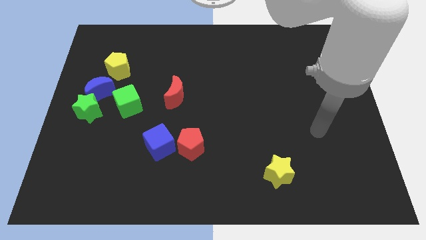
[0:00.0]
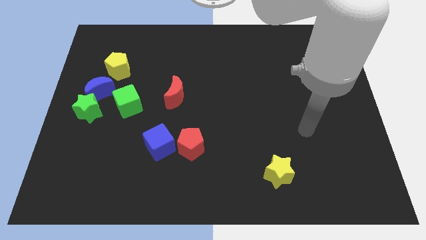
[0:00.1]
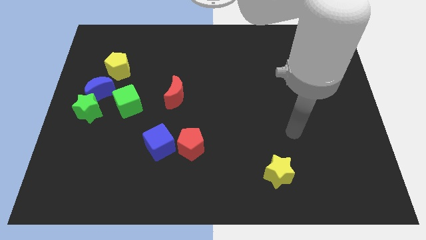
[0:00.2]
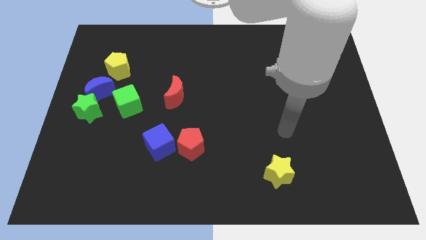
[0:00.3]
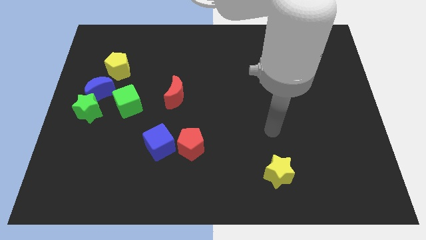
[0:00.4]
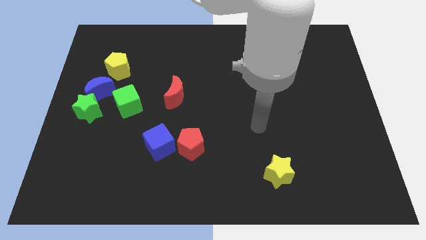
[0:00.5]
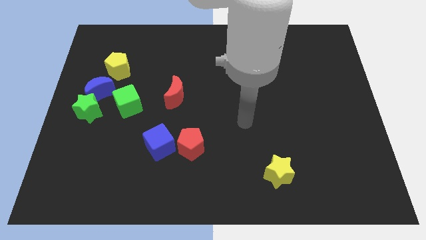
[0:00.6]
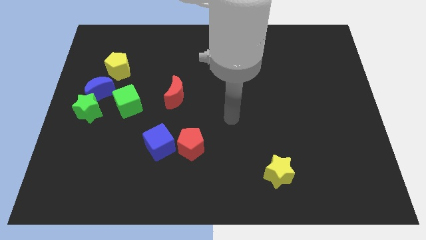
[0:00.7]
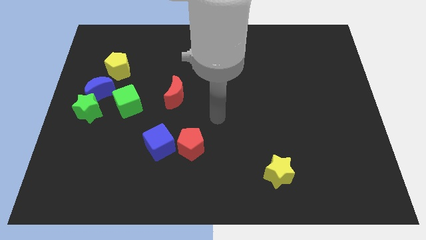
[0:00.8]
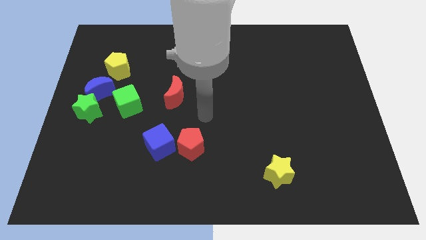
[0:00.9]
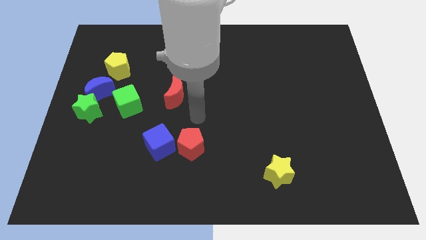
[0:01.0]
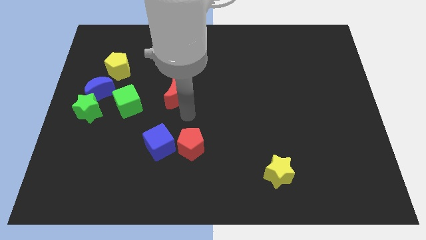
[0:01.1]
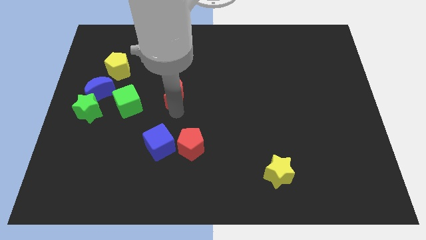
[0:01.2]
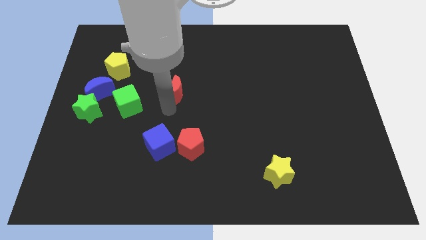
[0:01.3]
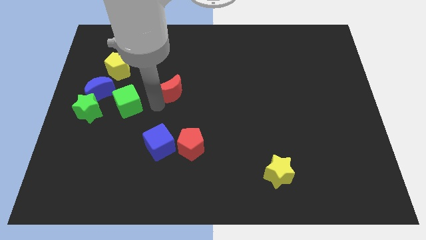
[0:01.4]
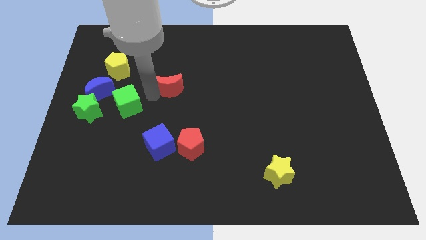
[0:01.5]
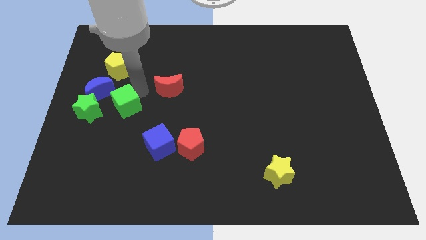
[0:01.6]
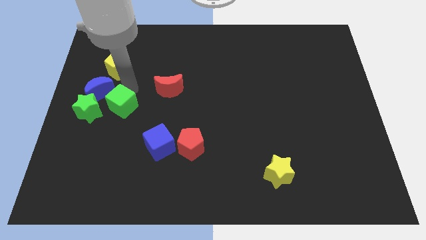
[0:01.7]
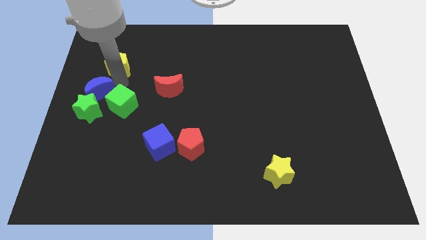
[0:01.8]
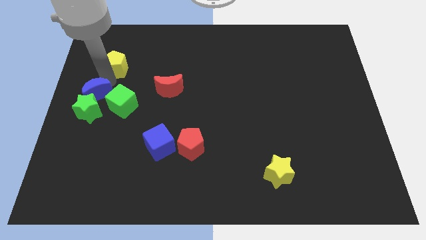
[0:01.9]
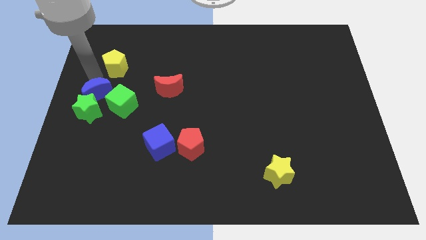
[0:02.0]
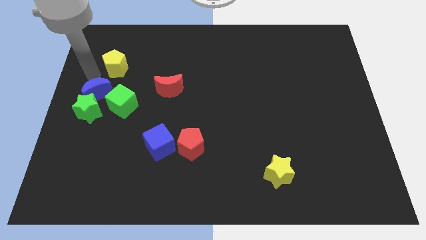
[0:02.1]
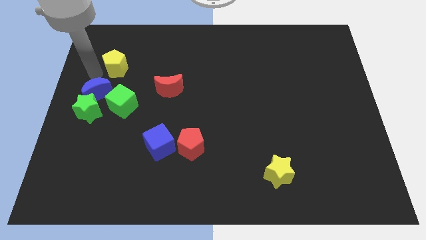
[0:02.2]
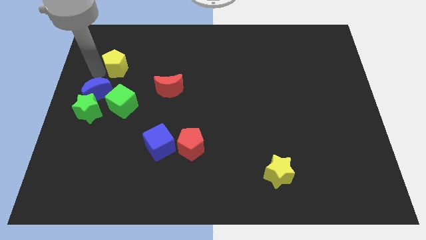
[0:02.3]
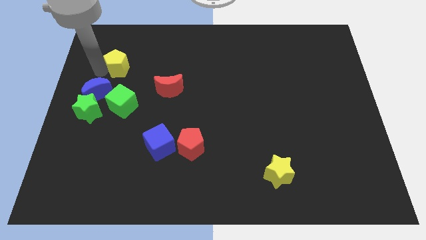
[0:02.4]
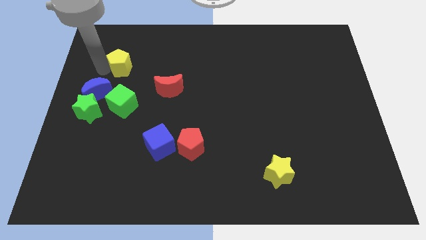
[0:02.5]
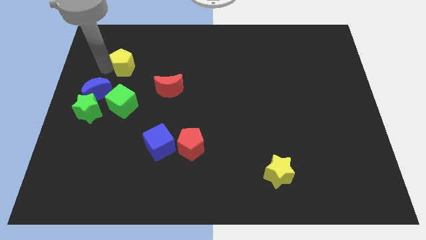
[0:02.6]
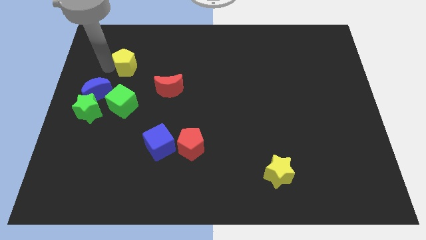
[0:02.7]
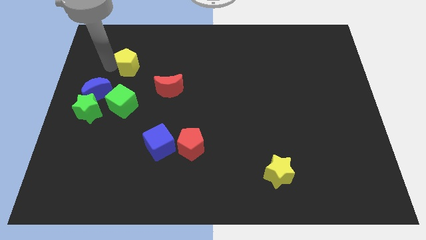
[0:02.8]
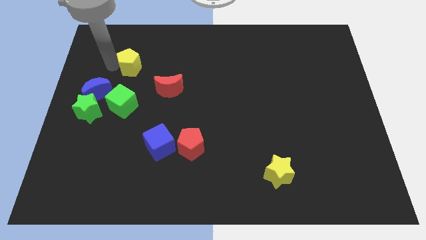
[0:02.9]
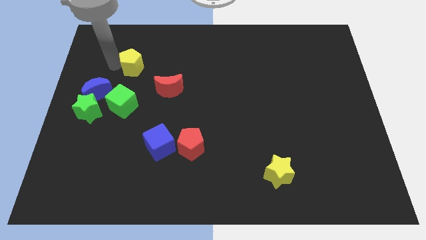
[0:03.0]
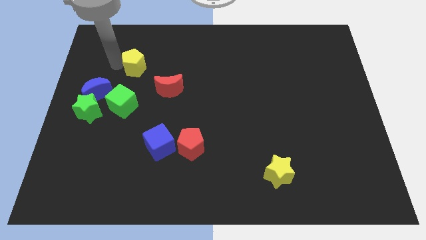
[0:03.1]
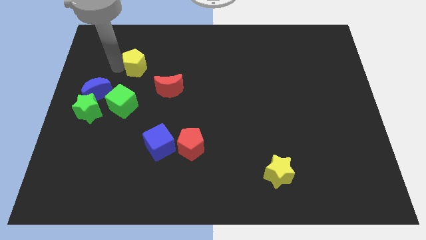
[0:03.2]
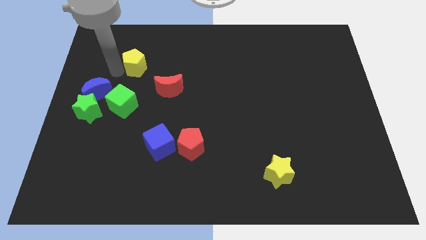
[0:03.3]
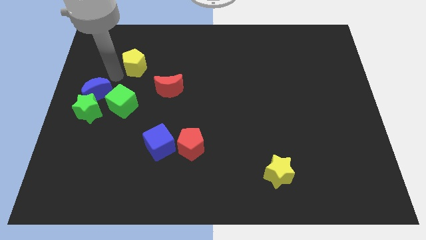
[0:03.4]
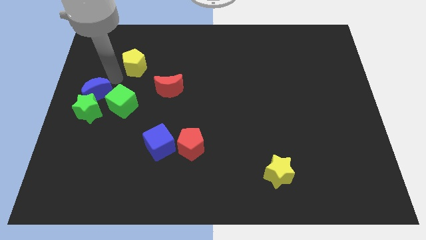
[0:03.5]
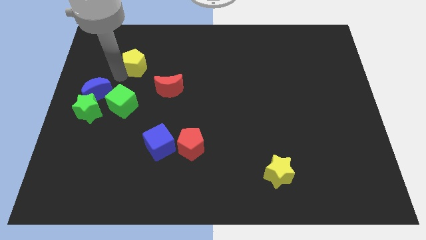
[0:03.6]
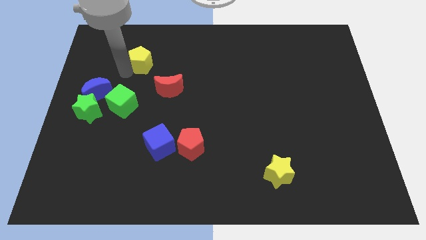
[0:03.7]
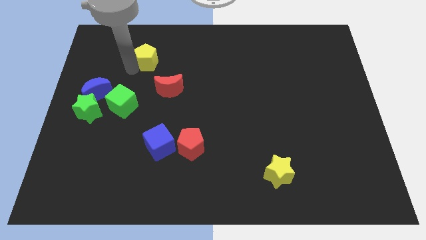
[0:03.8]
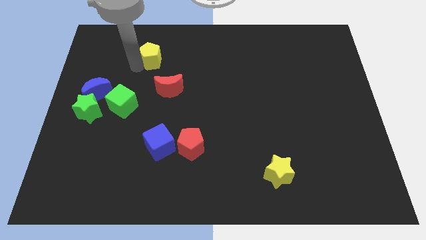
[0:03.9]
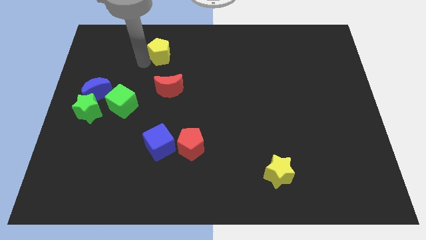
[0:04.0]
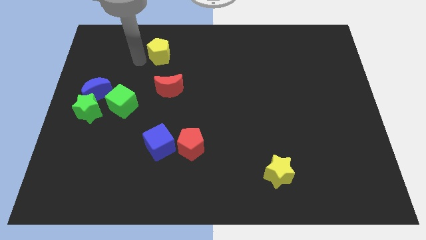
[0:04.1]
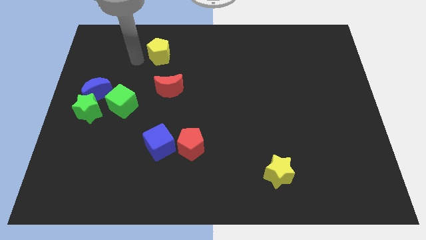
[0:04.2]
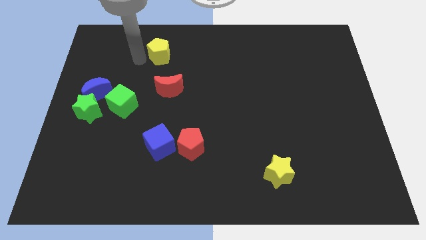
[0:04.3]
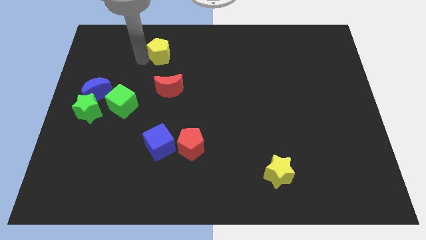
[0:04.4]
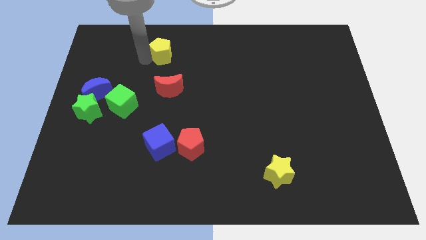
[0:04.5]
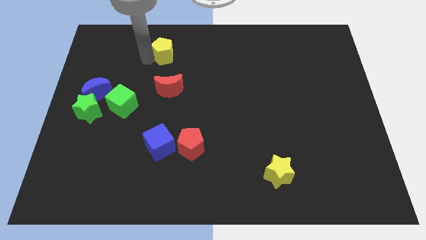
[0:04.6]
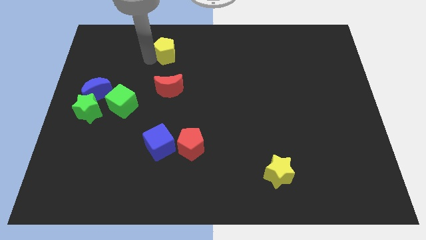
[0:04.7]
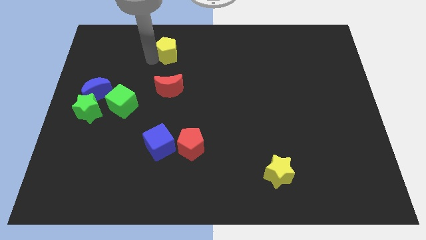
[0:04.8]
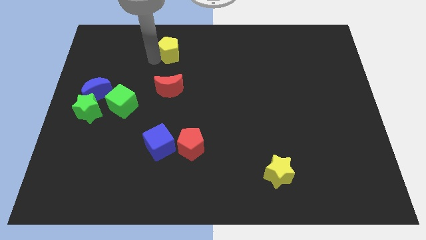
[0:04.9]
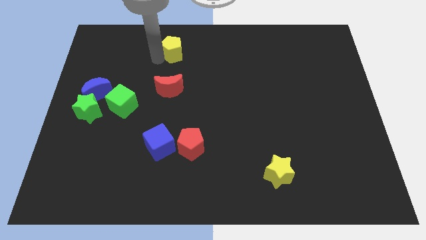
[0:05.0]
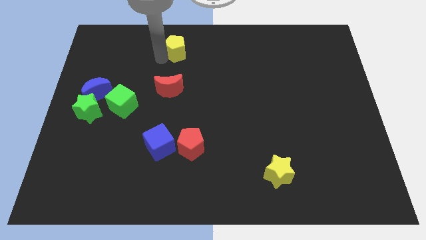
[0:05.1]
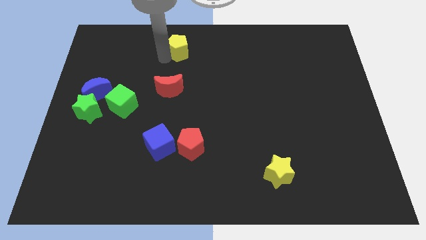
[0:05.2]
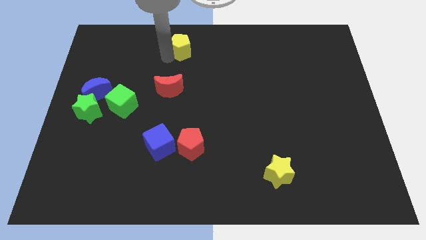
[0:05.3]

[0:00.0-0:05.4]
move the yellow pentagon to the towards your base

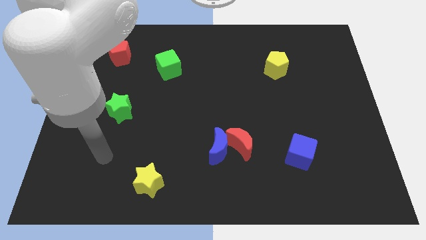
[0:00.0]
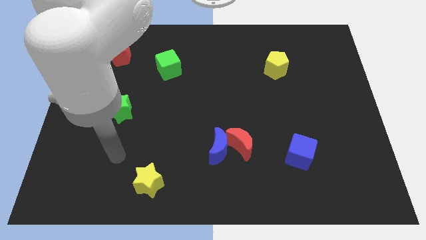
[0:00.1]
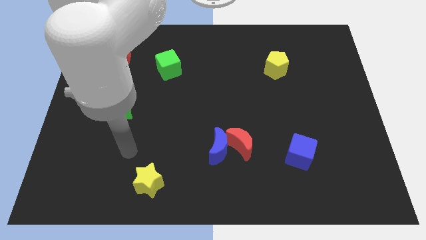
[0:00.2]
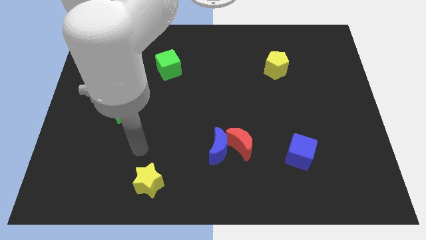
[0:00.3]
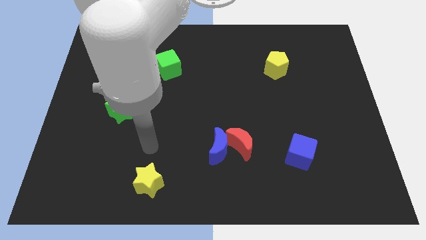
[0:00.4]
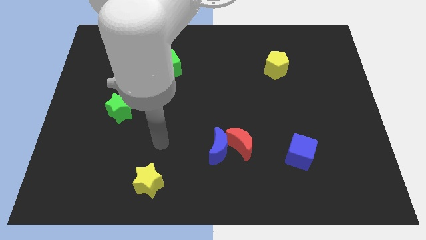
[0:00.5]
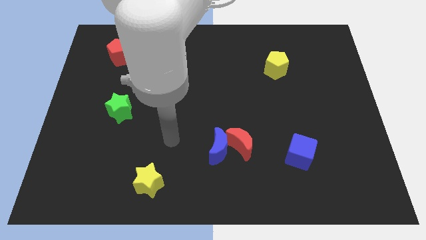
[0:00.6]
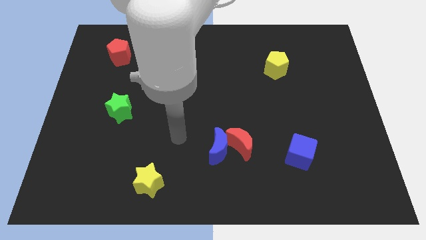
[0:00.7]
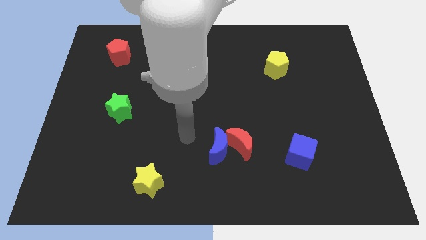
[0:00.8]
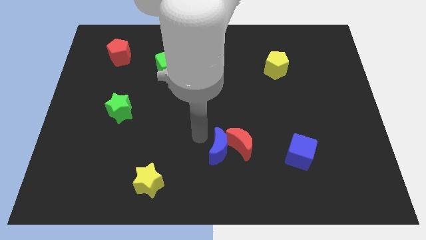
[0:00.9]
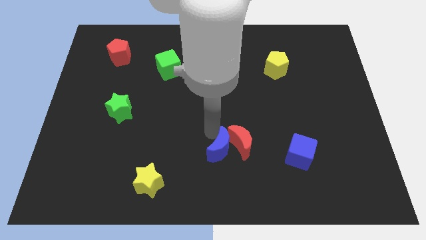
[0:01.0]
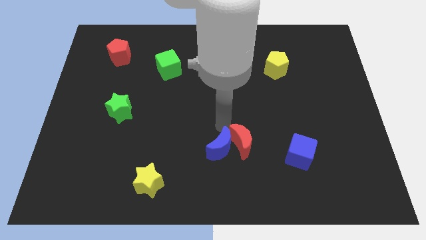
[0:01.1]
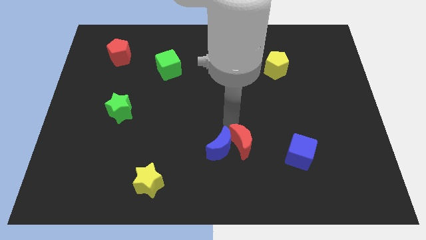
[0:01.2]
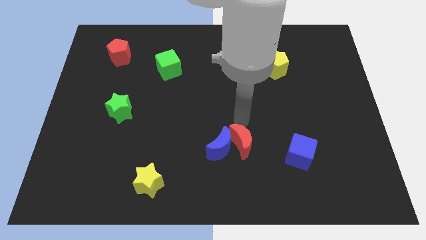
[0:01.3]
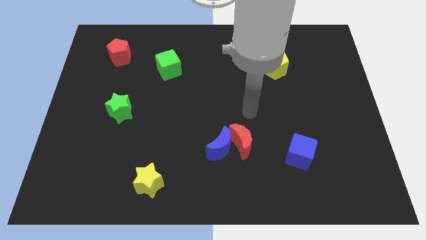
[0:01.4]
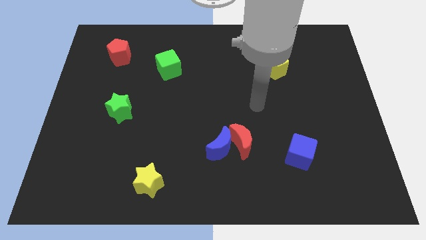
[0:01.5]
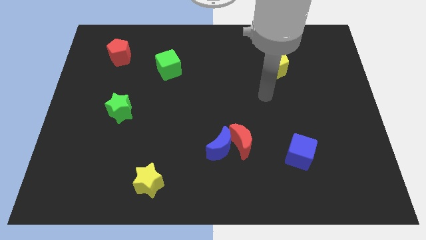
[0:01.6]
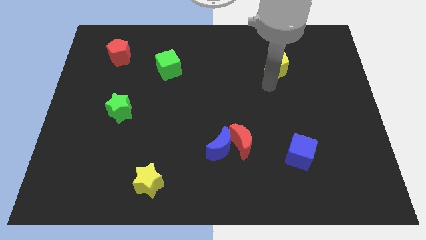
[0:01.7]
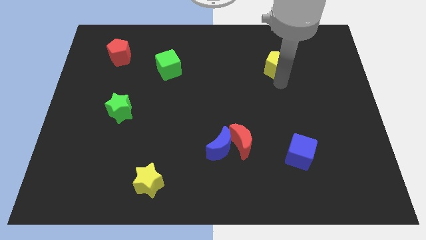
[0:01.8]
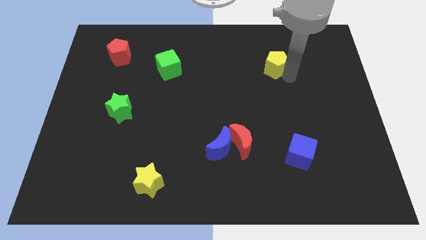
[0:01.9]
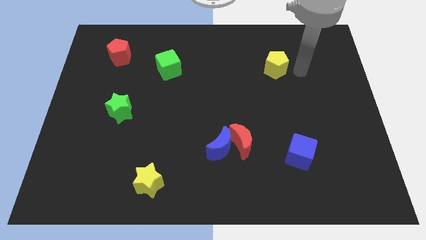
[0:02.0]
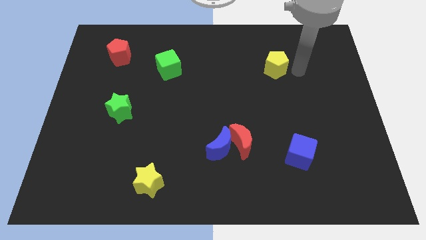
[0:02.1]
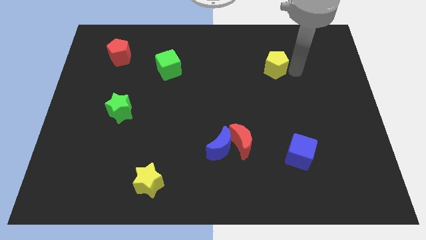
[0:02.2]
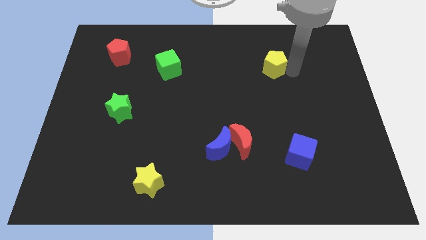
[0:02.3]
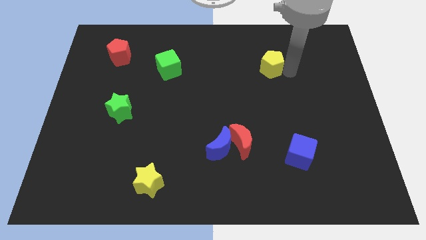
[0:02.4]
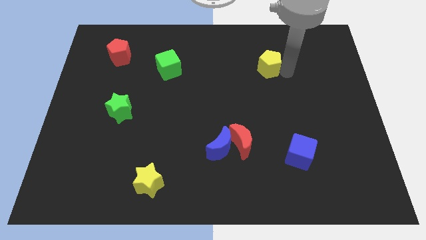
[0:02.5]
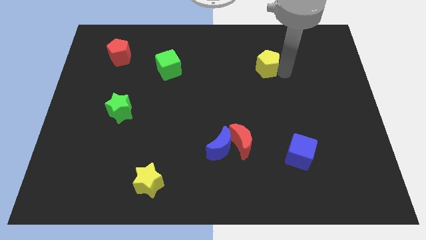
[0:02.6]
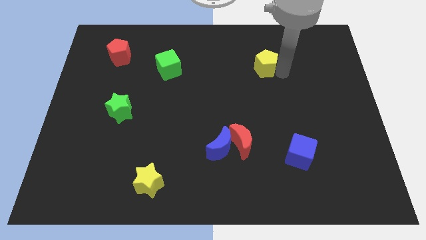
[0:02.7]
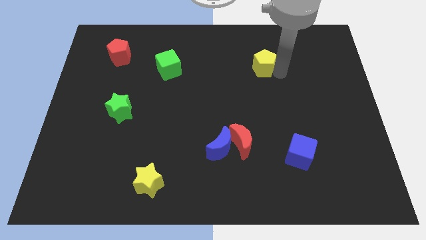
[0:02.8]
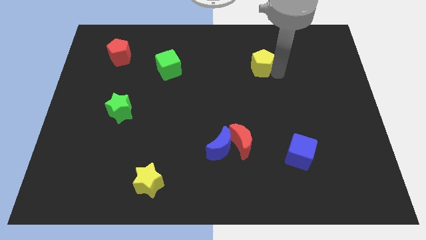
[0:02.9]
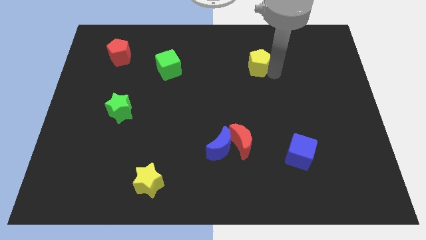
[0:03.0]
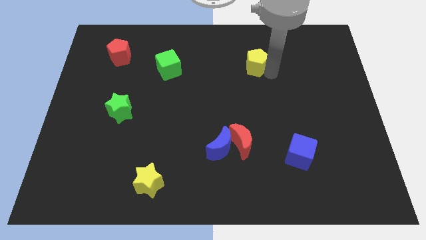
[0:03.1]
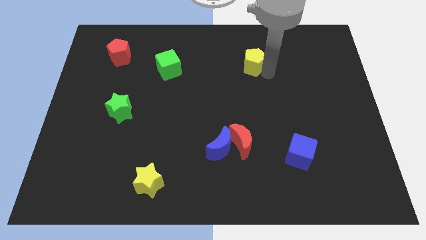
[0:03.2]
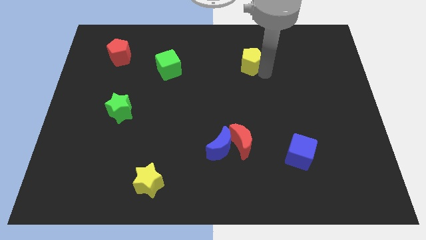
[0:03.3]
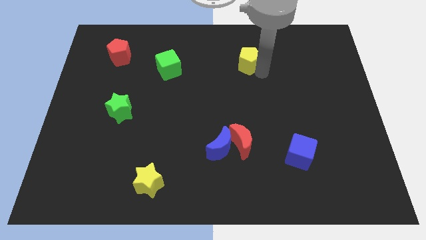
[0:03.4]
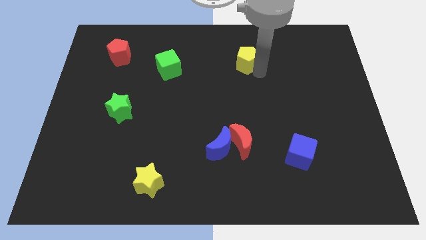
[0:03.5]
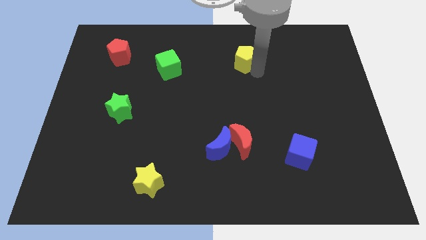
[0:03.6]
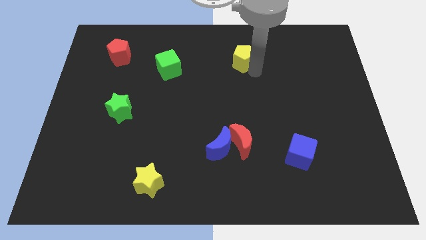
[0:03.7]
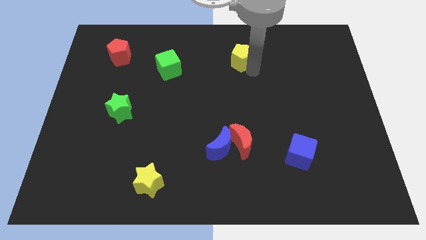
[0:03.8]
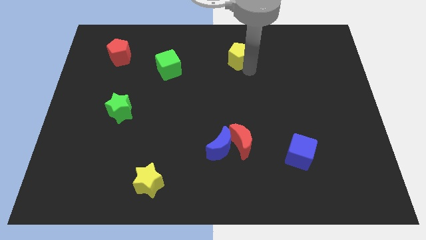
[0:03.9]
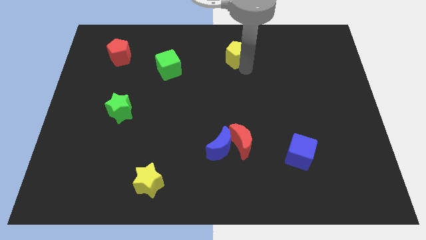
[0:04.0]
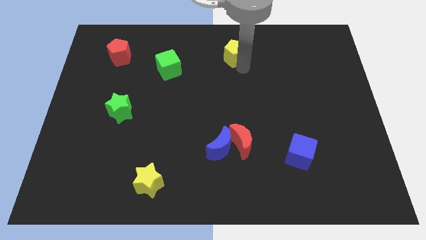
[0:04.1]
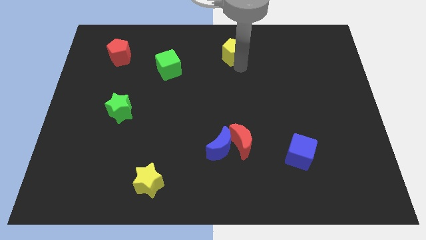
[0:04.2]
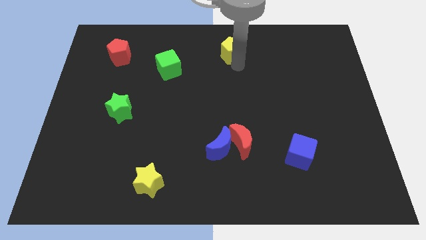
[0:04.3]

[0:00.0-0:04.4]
slide the yellow pentagon to the towards your base
